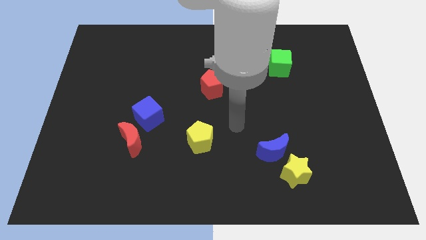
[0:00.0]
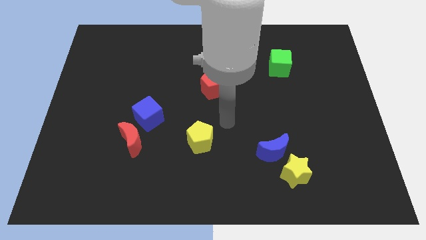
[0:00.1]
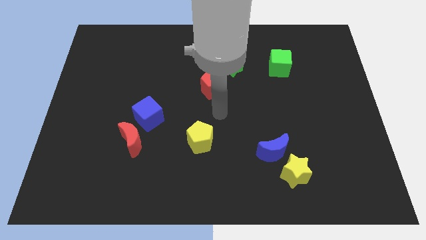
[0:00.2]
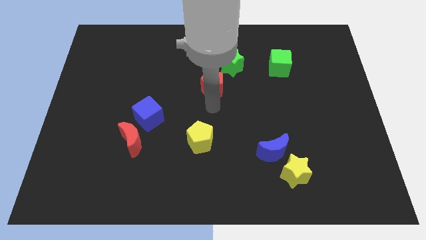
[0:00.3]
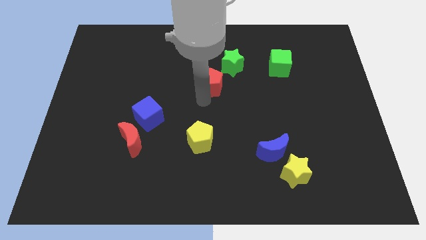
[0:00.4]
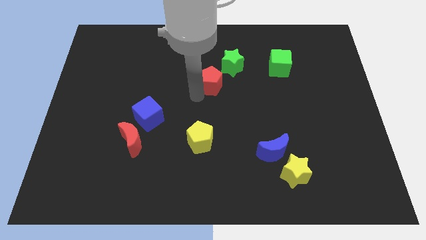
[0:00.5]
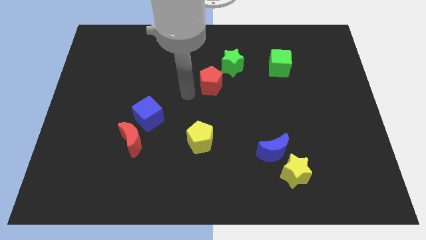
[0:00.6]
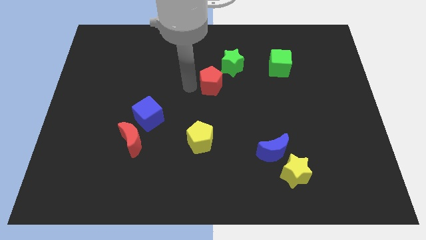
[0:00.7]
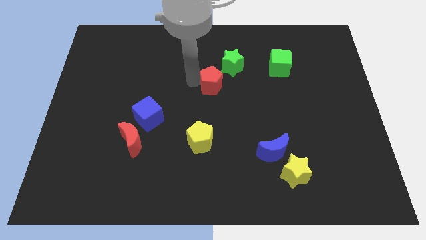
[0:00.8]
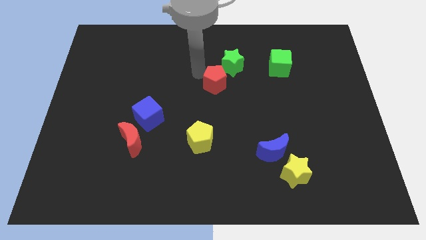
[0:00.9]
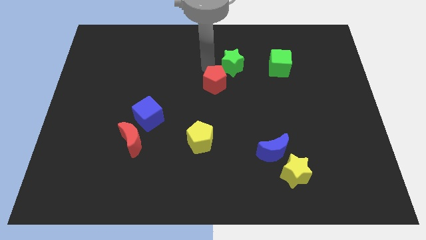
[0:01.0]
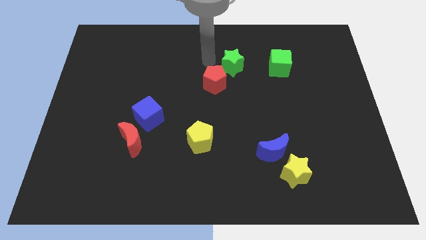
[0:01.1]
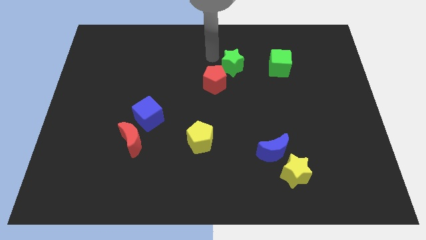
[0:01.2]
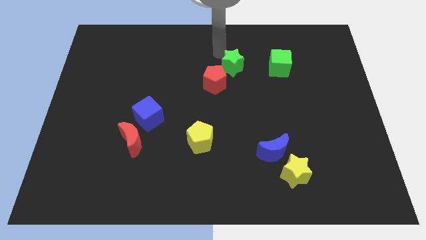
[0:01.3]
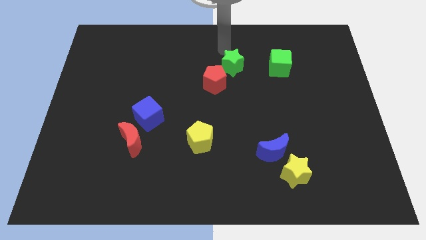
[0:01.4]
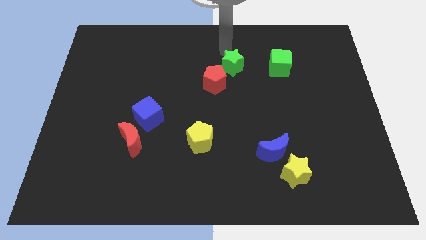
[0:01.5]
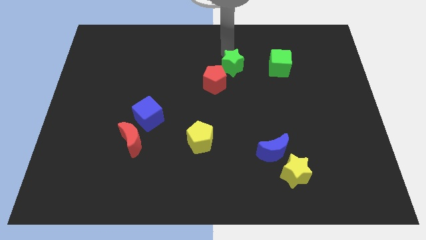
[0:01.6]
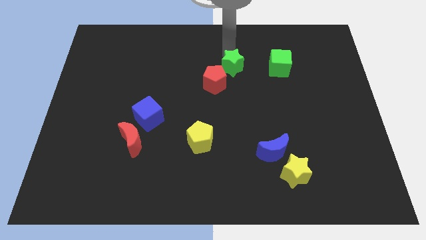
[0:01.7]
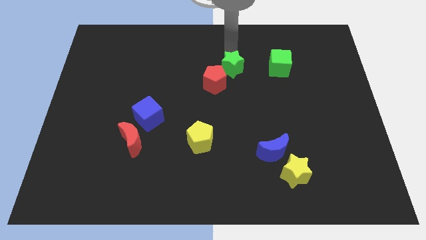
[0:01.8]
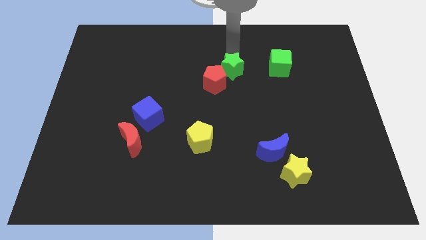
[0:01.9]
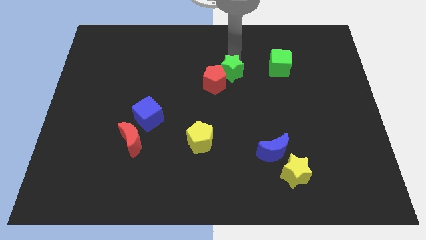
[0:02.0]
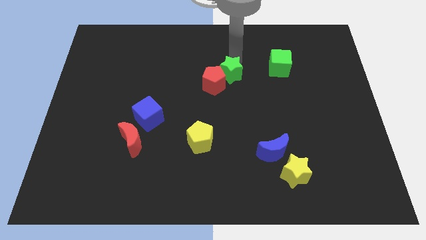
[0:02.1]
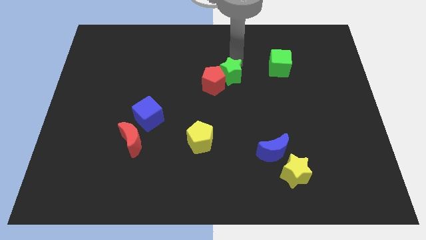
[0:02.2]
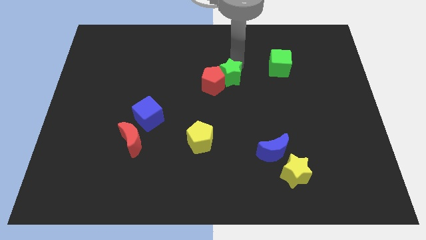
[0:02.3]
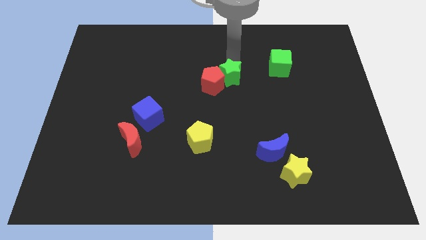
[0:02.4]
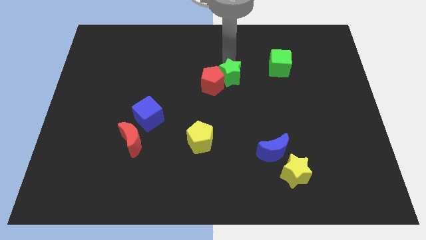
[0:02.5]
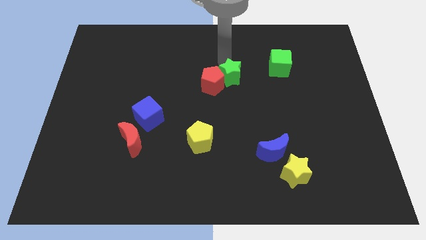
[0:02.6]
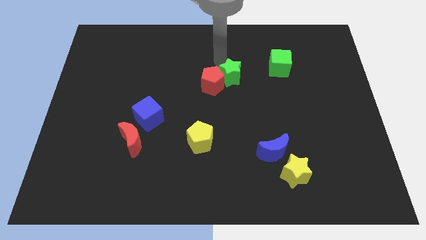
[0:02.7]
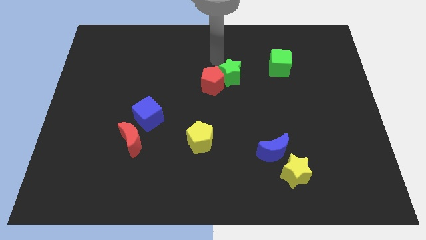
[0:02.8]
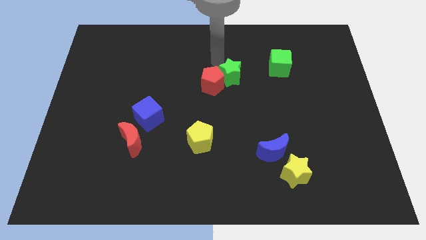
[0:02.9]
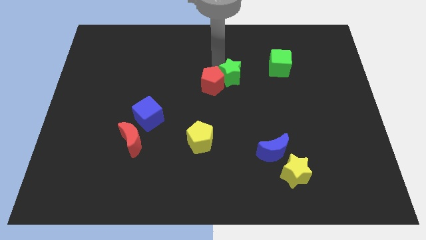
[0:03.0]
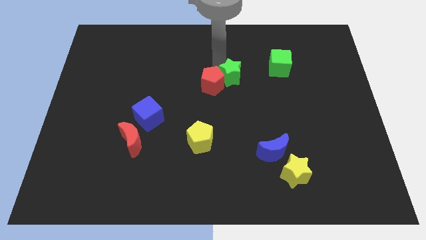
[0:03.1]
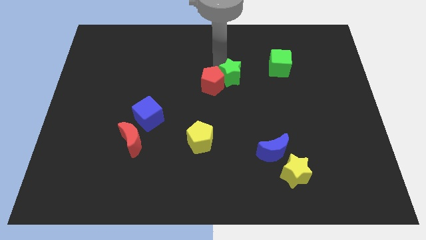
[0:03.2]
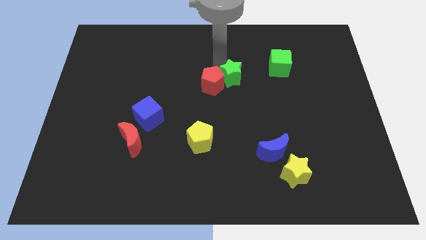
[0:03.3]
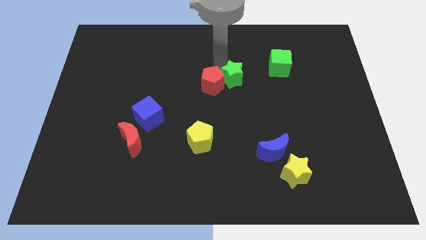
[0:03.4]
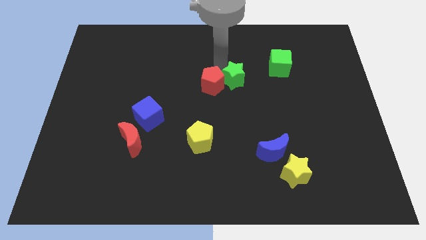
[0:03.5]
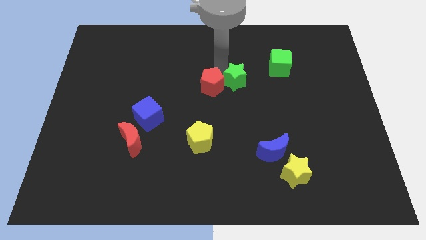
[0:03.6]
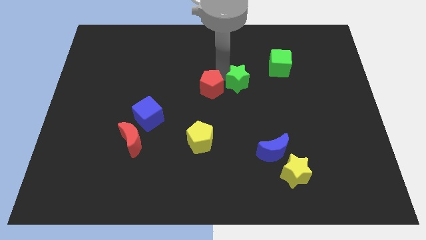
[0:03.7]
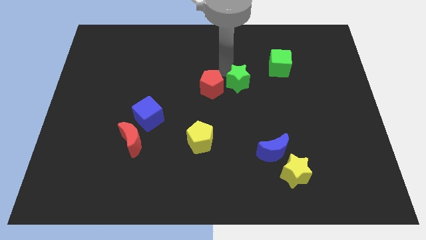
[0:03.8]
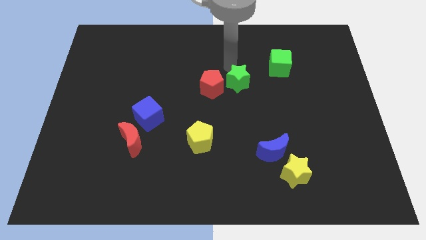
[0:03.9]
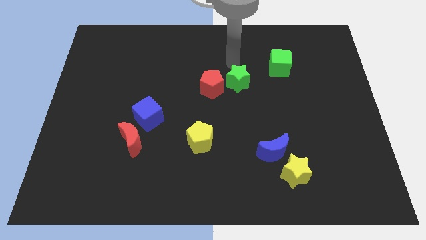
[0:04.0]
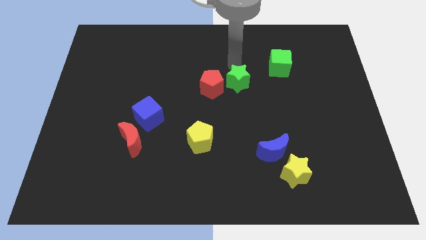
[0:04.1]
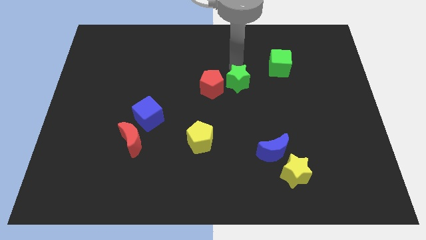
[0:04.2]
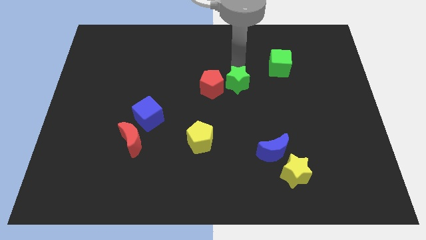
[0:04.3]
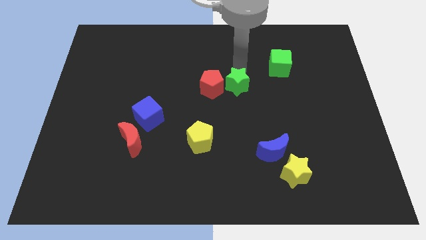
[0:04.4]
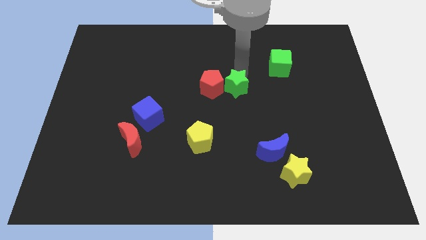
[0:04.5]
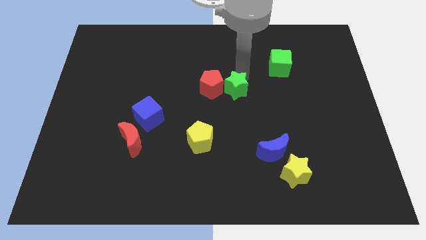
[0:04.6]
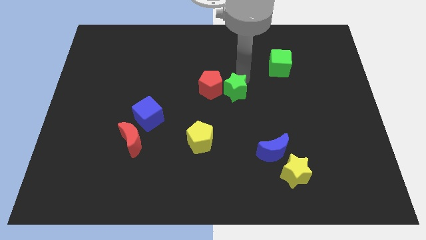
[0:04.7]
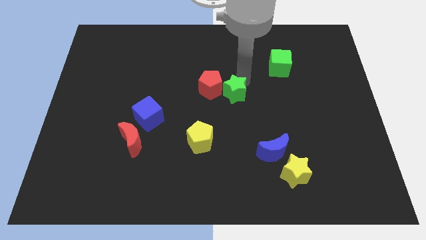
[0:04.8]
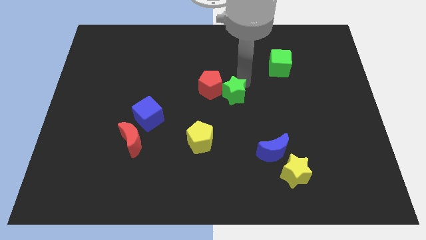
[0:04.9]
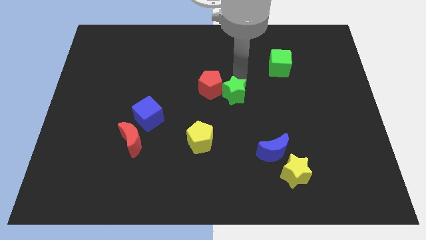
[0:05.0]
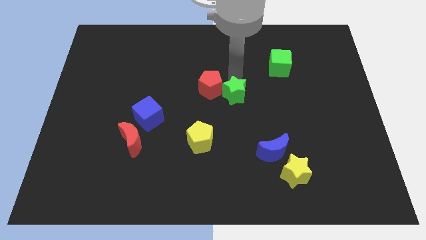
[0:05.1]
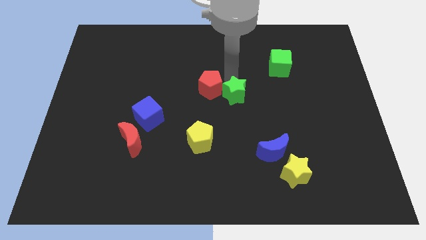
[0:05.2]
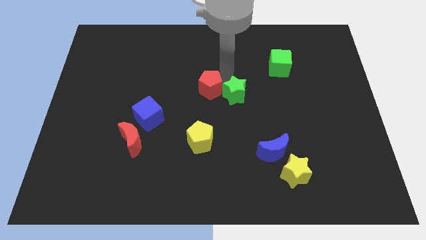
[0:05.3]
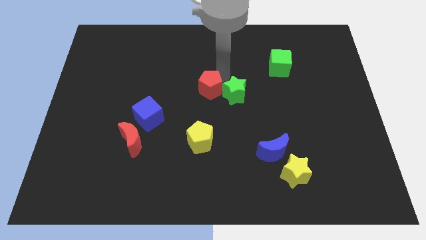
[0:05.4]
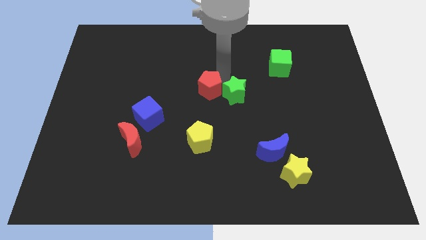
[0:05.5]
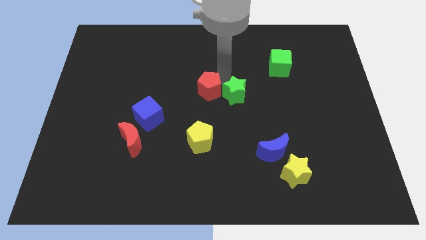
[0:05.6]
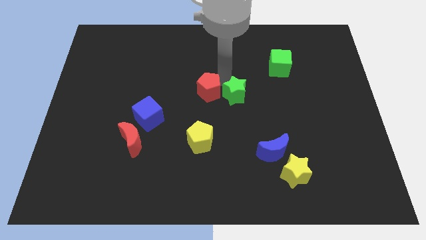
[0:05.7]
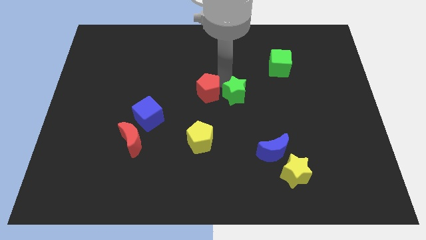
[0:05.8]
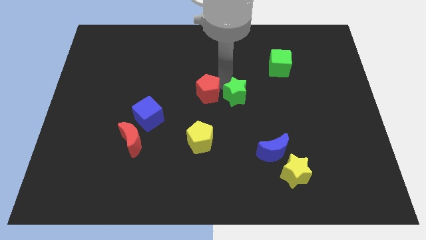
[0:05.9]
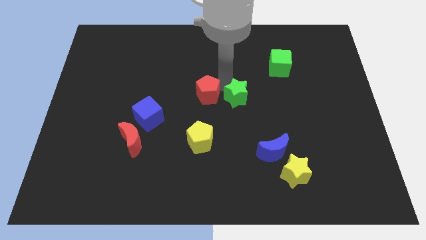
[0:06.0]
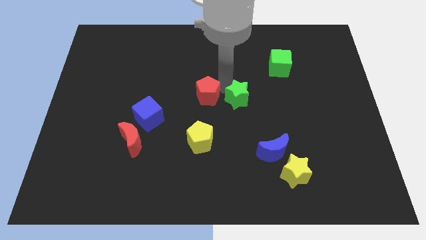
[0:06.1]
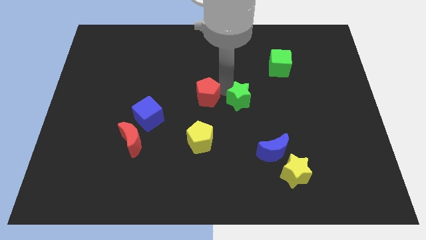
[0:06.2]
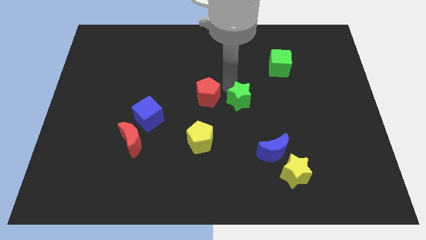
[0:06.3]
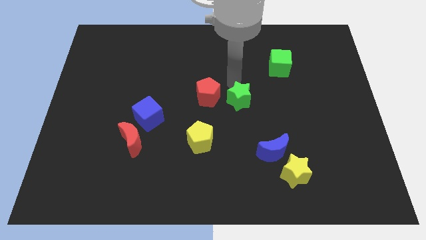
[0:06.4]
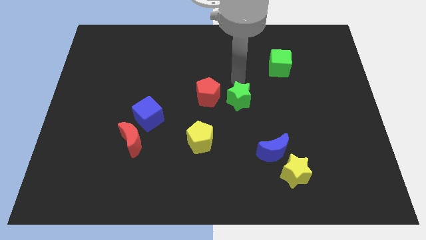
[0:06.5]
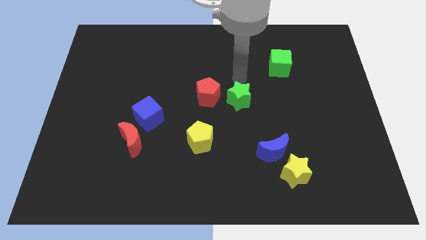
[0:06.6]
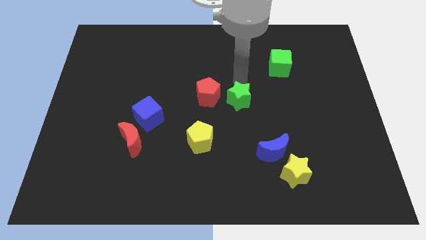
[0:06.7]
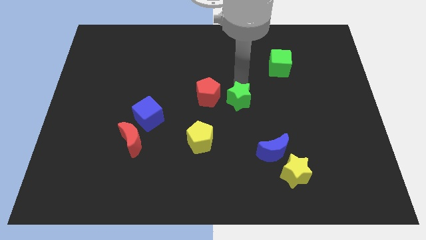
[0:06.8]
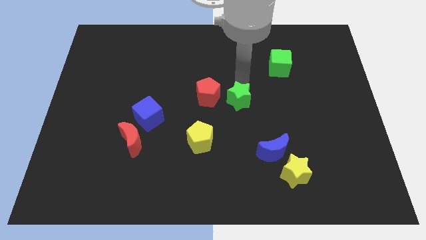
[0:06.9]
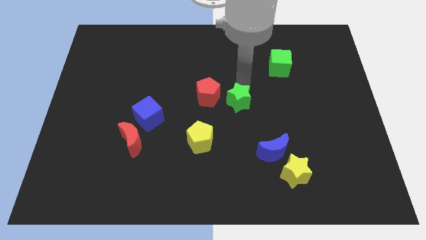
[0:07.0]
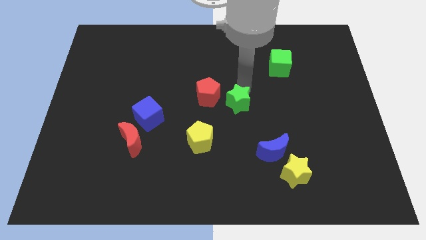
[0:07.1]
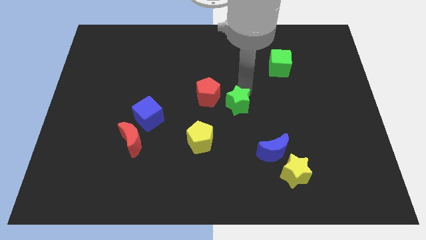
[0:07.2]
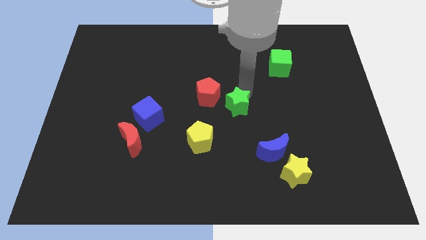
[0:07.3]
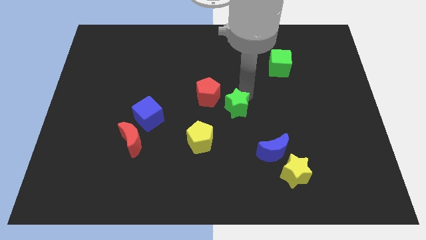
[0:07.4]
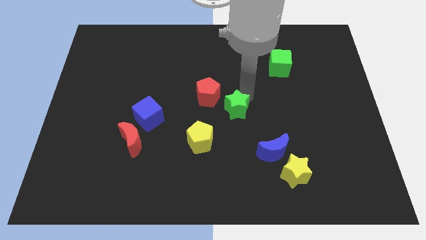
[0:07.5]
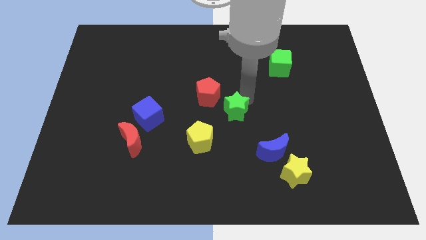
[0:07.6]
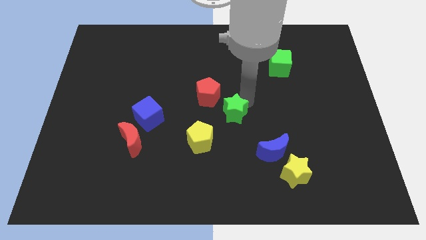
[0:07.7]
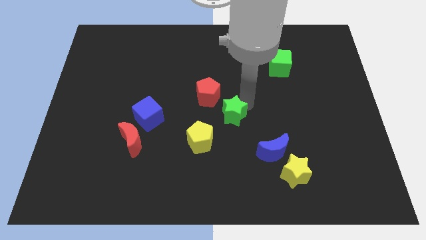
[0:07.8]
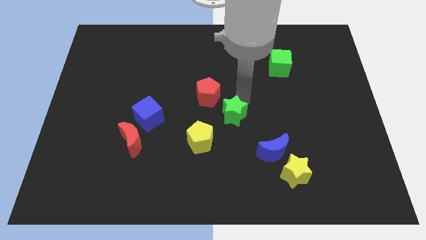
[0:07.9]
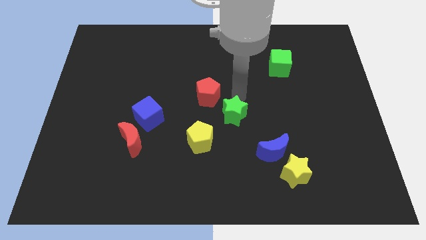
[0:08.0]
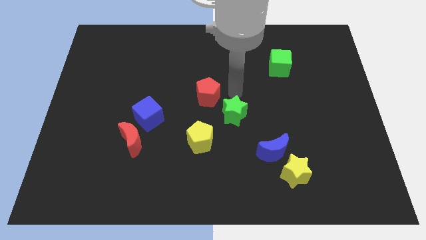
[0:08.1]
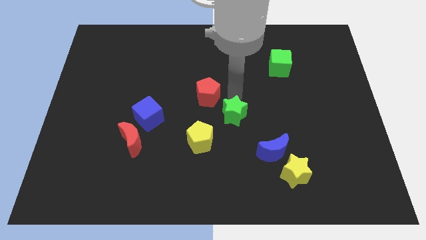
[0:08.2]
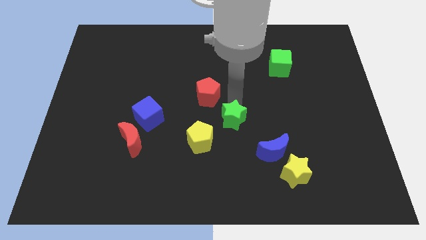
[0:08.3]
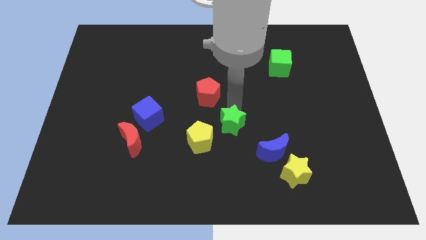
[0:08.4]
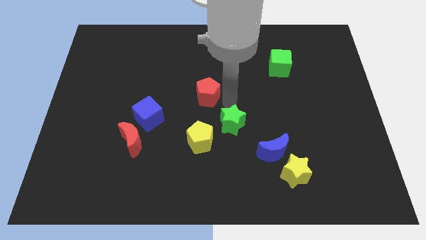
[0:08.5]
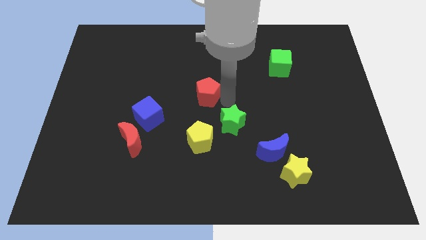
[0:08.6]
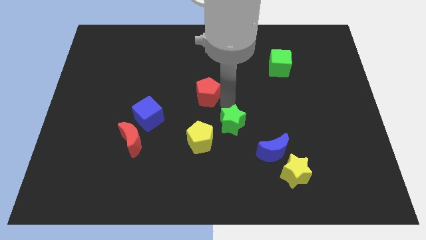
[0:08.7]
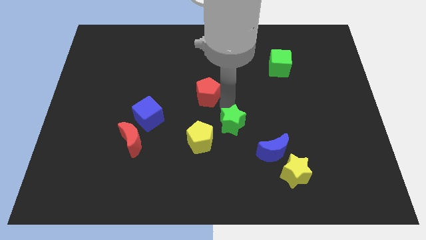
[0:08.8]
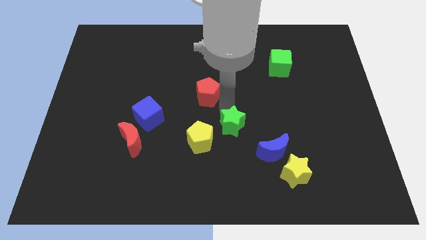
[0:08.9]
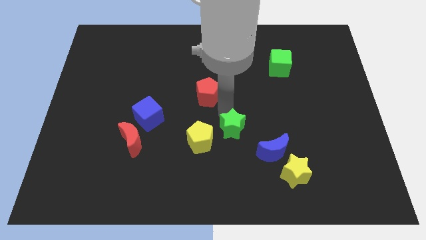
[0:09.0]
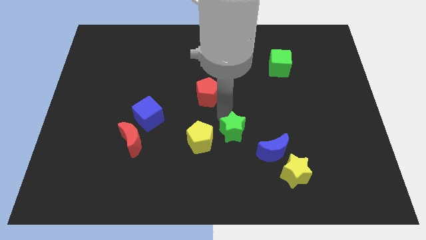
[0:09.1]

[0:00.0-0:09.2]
push the green star downwards
